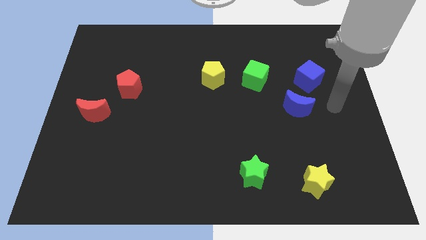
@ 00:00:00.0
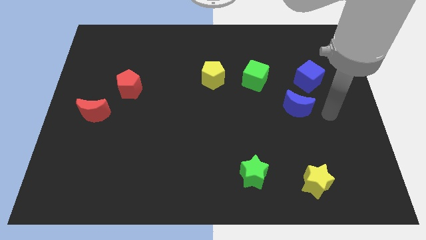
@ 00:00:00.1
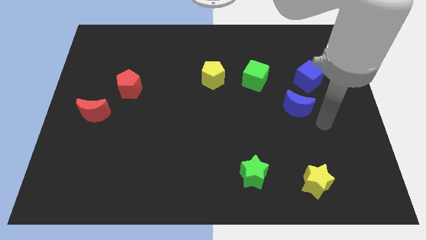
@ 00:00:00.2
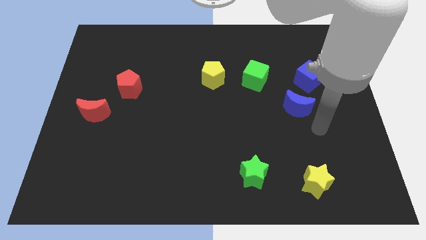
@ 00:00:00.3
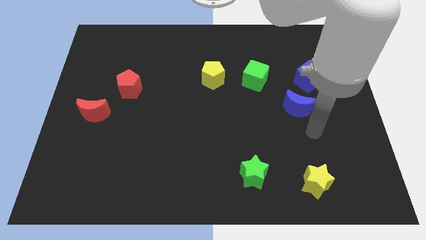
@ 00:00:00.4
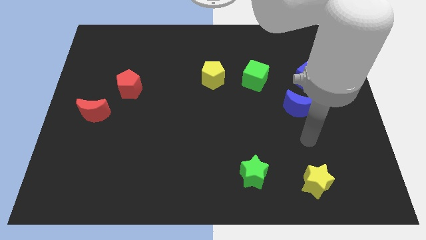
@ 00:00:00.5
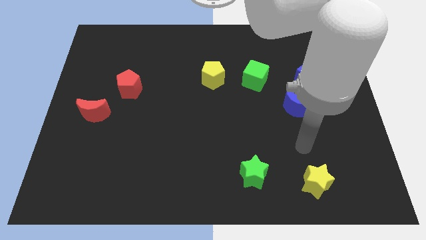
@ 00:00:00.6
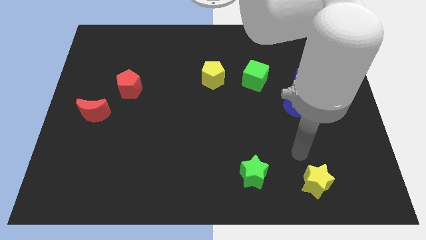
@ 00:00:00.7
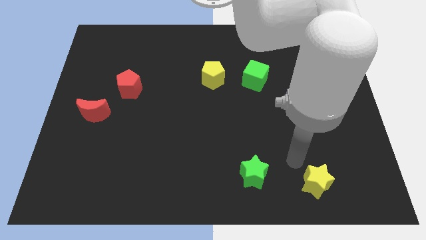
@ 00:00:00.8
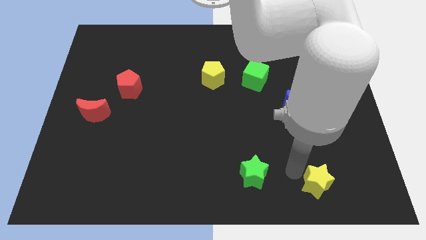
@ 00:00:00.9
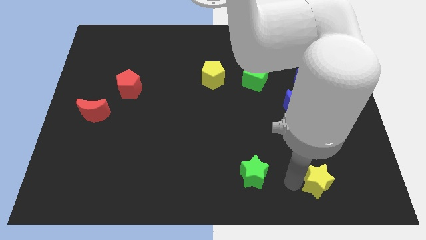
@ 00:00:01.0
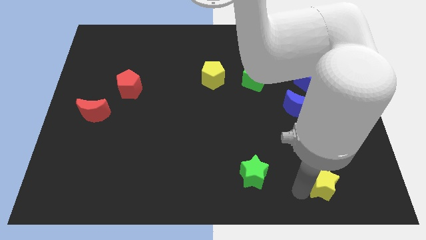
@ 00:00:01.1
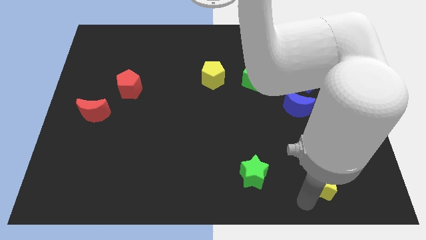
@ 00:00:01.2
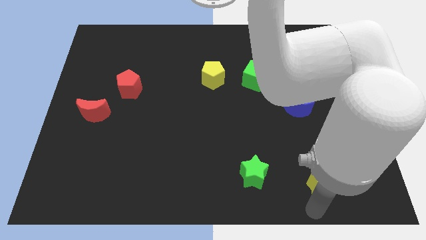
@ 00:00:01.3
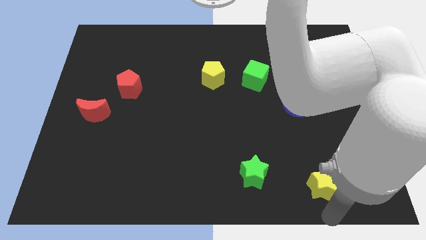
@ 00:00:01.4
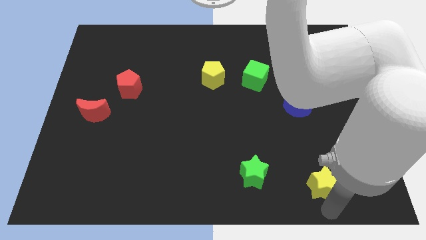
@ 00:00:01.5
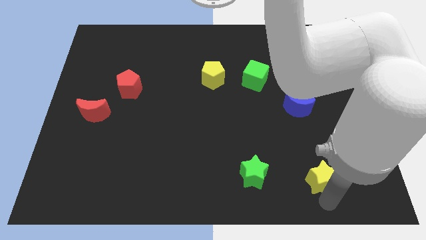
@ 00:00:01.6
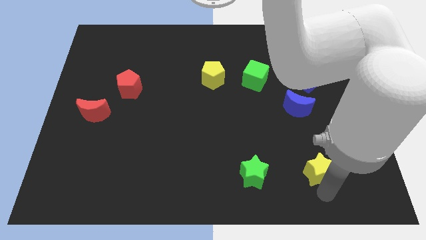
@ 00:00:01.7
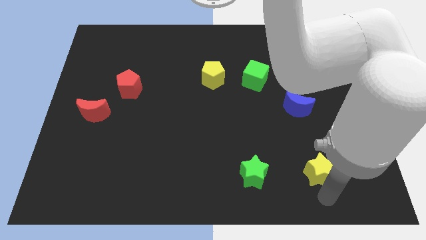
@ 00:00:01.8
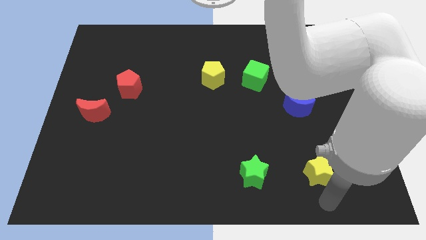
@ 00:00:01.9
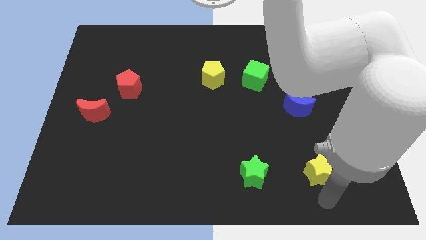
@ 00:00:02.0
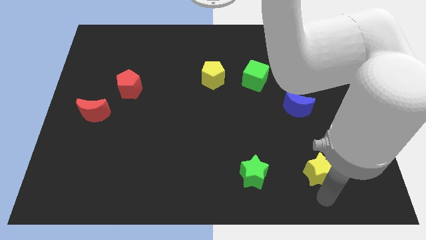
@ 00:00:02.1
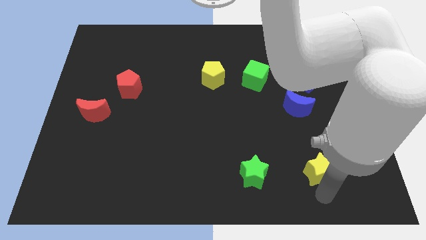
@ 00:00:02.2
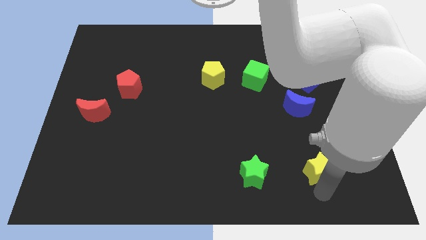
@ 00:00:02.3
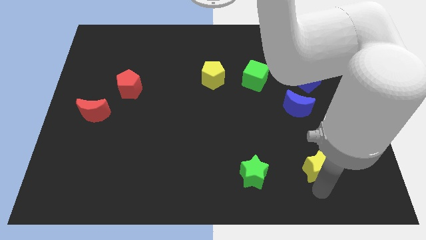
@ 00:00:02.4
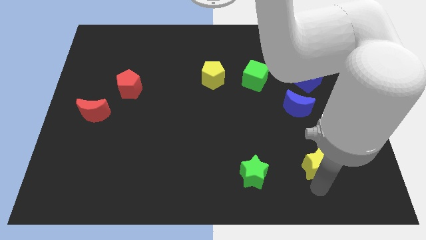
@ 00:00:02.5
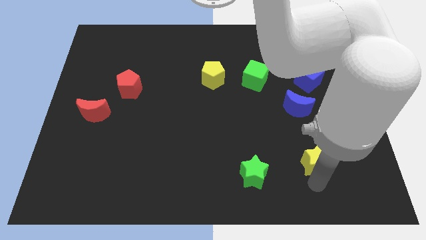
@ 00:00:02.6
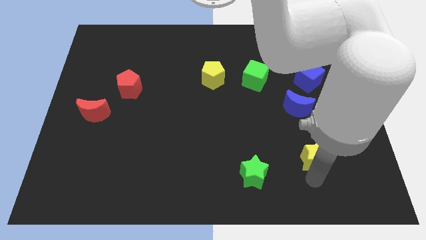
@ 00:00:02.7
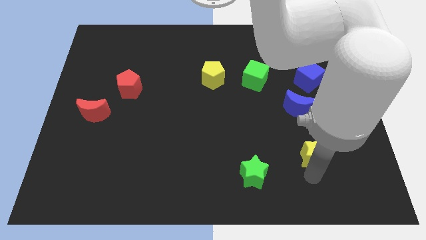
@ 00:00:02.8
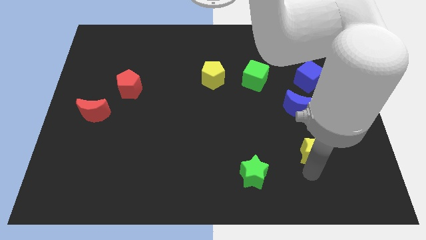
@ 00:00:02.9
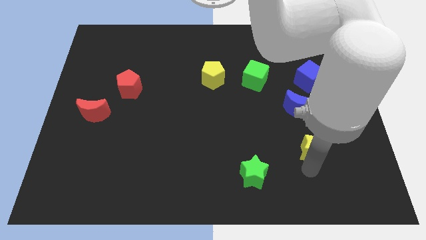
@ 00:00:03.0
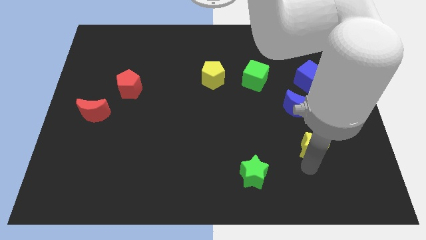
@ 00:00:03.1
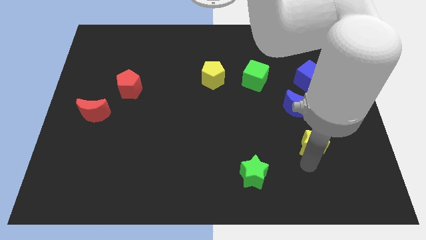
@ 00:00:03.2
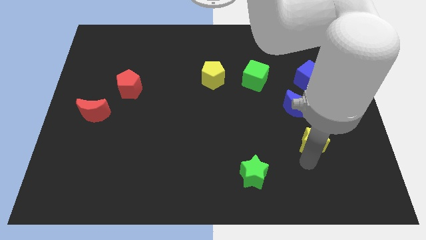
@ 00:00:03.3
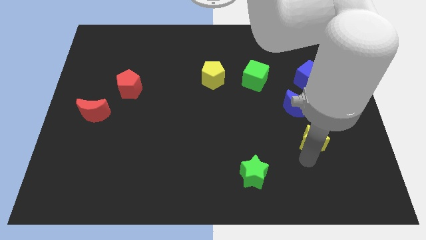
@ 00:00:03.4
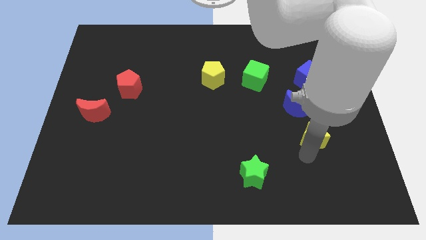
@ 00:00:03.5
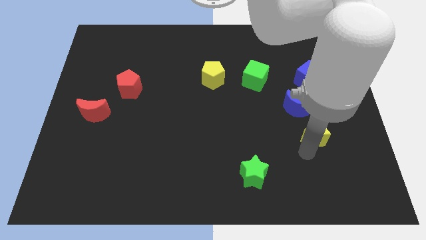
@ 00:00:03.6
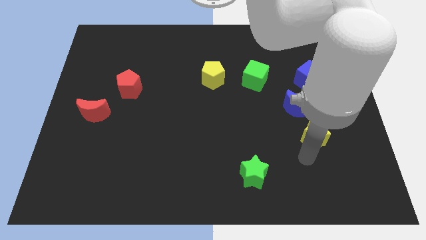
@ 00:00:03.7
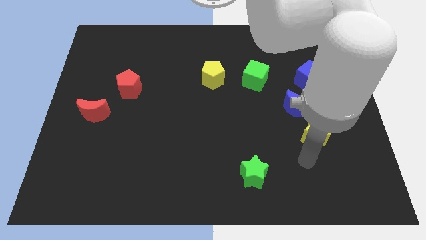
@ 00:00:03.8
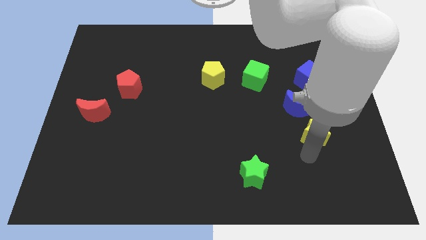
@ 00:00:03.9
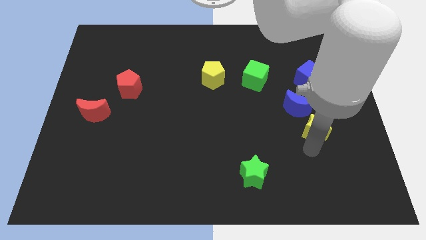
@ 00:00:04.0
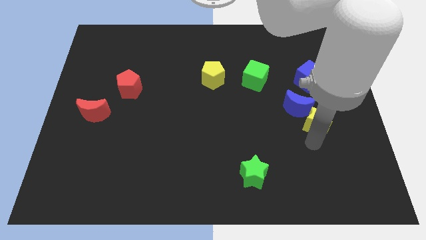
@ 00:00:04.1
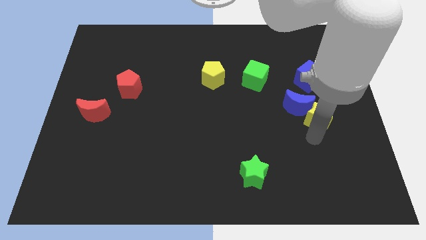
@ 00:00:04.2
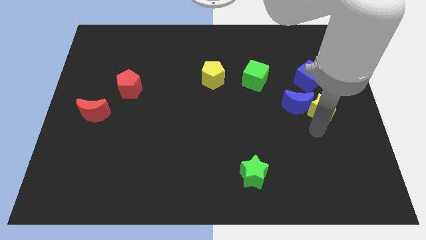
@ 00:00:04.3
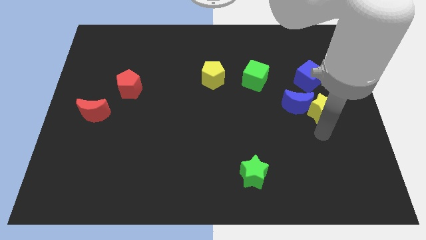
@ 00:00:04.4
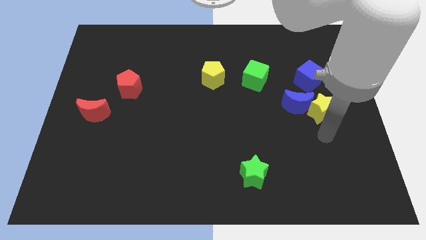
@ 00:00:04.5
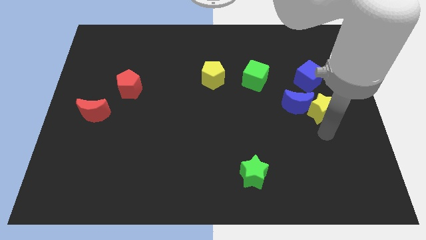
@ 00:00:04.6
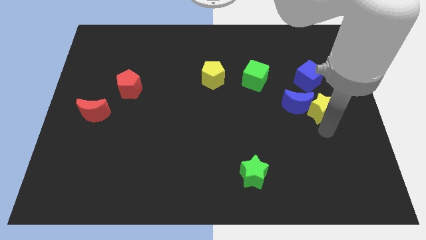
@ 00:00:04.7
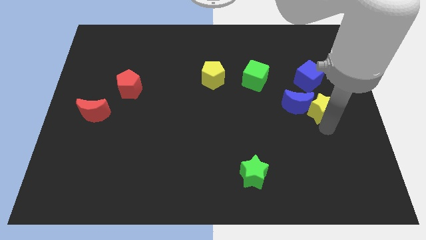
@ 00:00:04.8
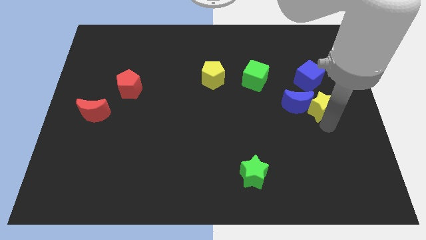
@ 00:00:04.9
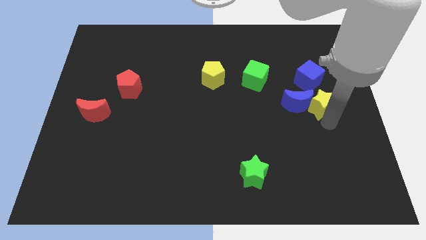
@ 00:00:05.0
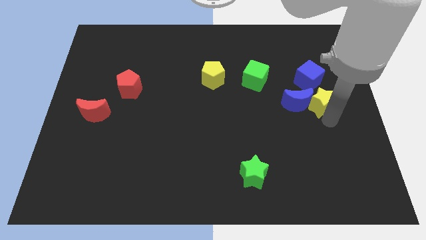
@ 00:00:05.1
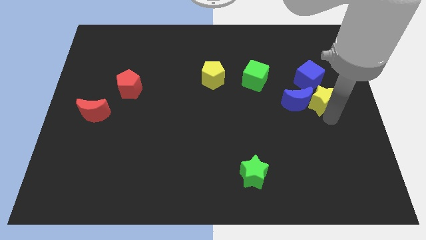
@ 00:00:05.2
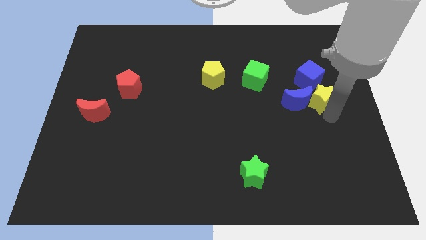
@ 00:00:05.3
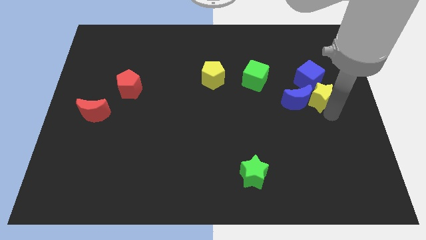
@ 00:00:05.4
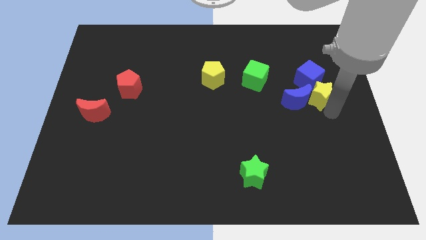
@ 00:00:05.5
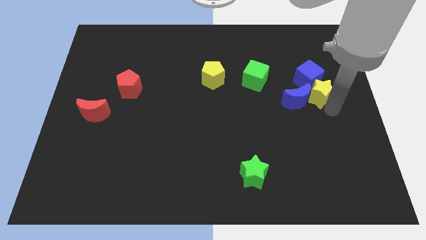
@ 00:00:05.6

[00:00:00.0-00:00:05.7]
slide the yellow star next to the blue cube

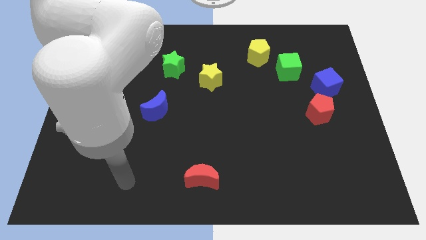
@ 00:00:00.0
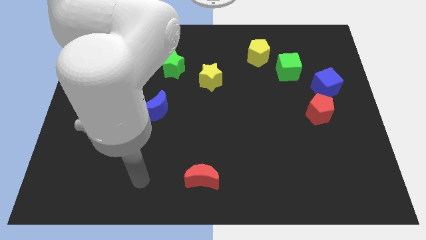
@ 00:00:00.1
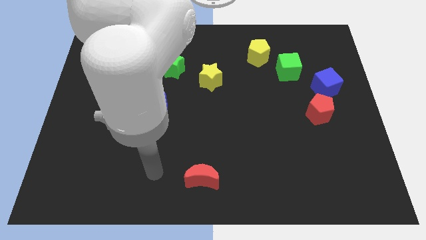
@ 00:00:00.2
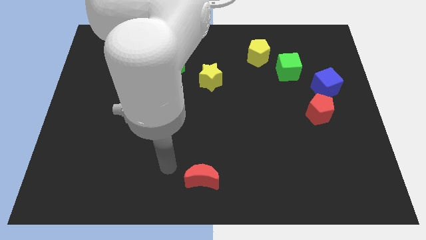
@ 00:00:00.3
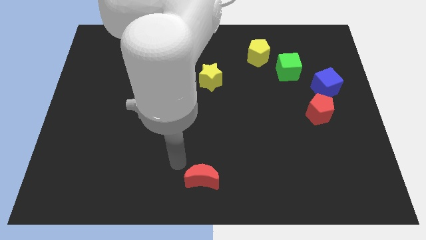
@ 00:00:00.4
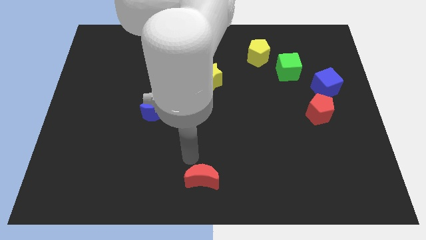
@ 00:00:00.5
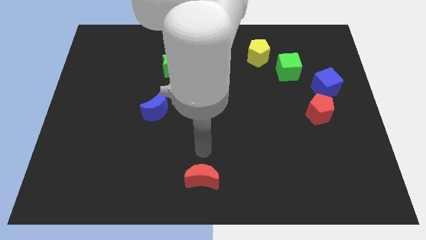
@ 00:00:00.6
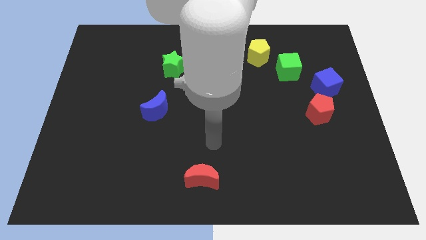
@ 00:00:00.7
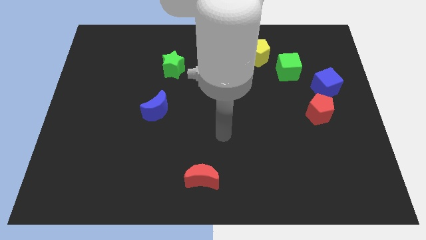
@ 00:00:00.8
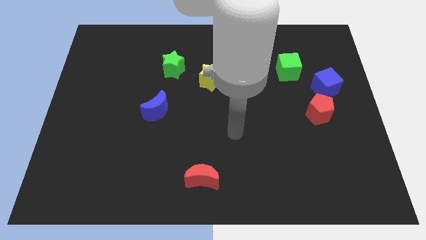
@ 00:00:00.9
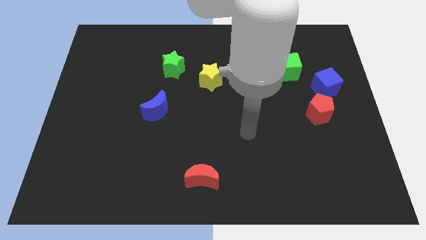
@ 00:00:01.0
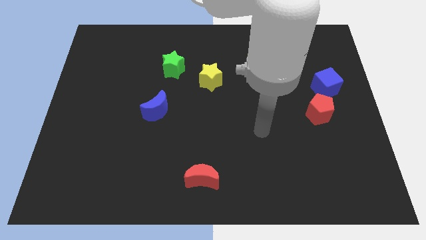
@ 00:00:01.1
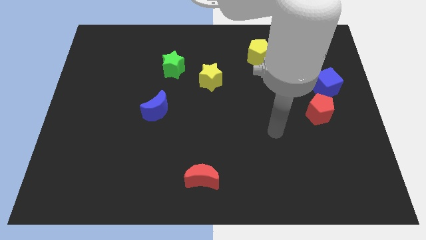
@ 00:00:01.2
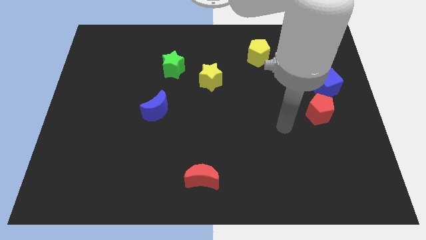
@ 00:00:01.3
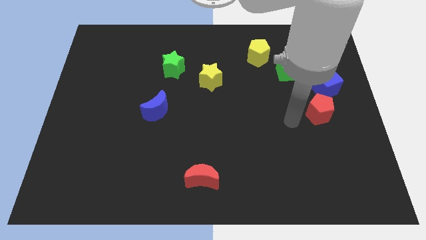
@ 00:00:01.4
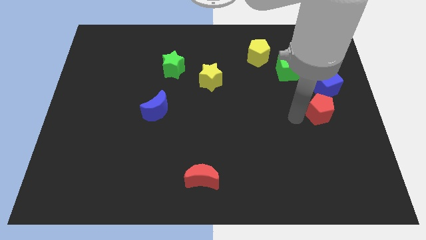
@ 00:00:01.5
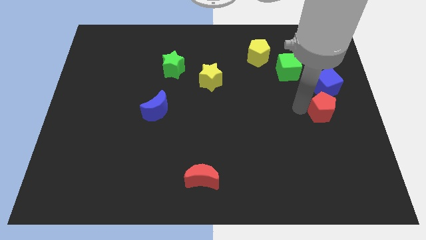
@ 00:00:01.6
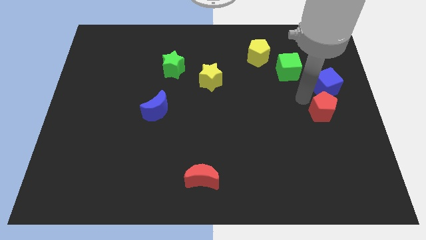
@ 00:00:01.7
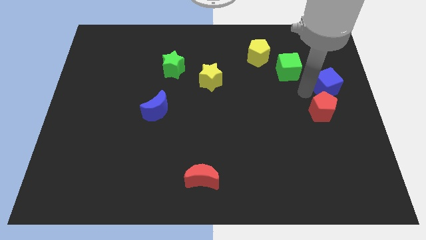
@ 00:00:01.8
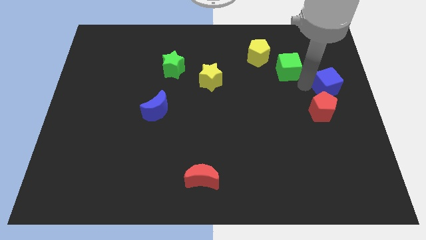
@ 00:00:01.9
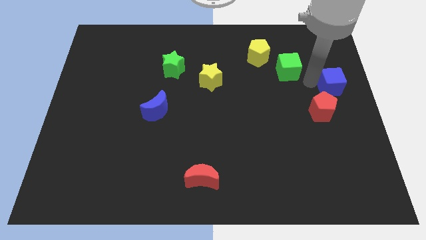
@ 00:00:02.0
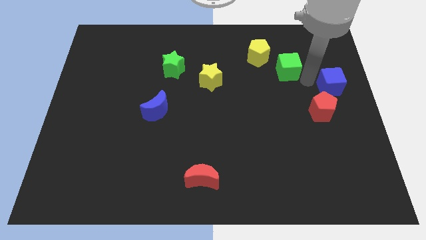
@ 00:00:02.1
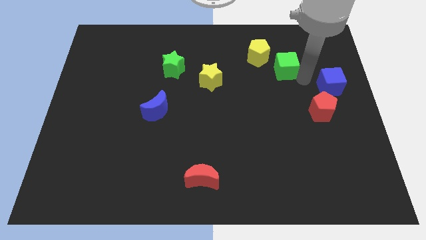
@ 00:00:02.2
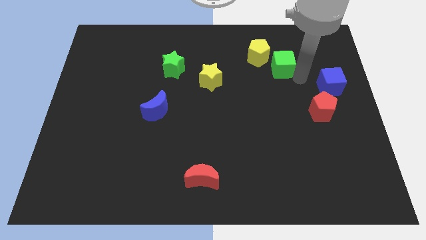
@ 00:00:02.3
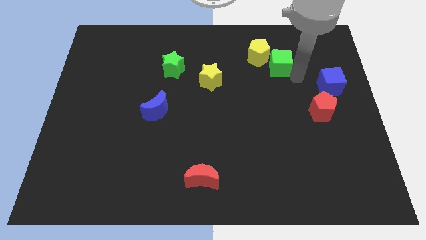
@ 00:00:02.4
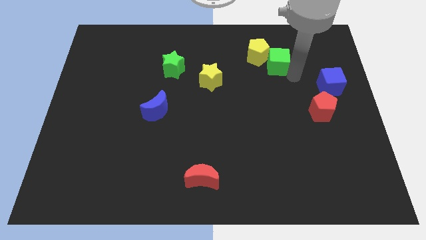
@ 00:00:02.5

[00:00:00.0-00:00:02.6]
push the green cube towards the yellow pentagon
